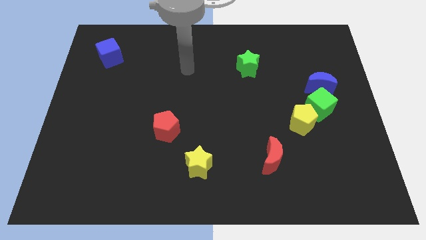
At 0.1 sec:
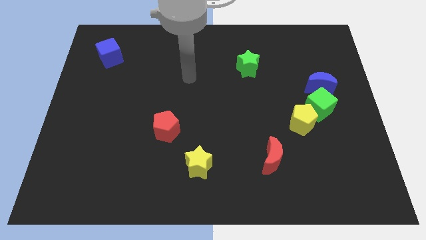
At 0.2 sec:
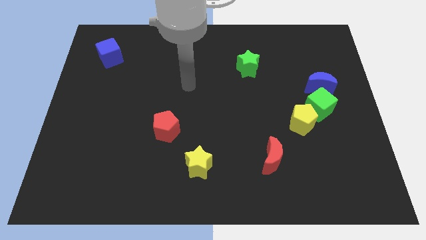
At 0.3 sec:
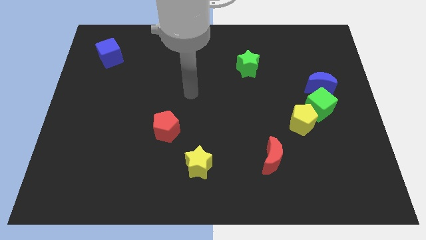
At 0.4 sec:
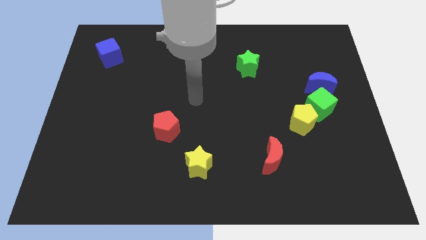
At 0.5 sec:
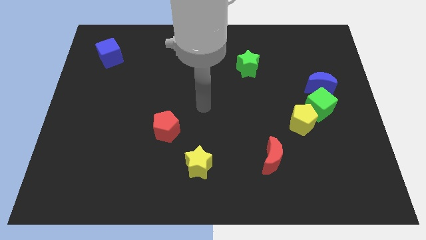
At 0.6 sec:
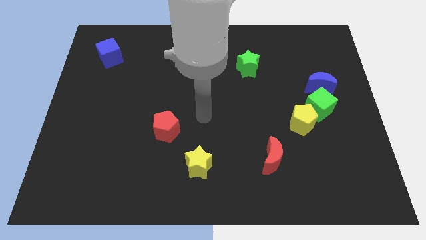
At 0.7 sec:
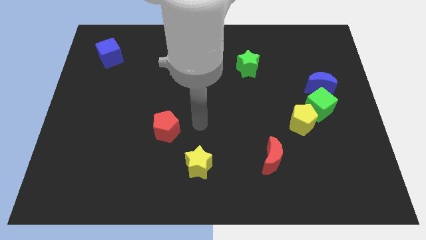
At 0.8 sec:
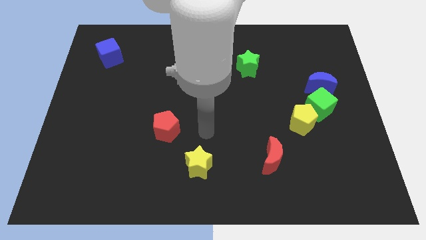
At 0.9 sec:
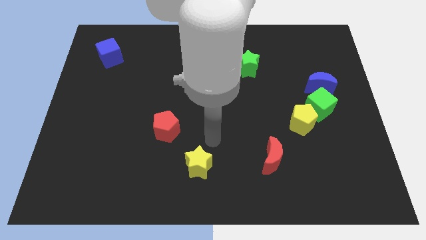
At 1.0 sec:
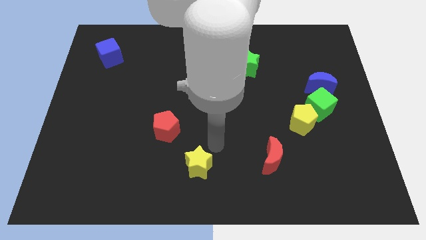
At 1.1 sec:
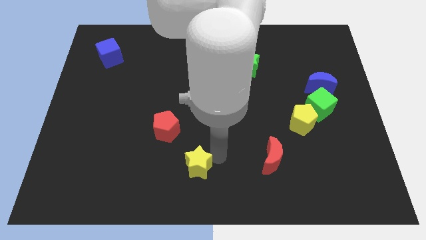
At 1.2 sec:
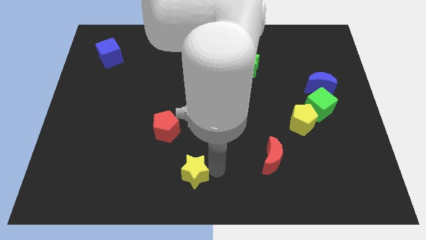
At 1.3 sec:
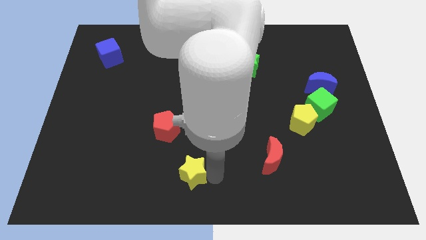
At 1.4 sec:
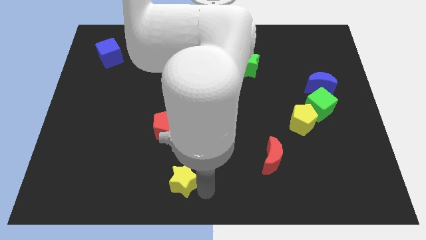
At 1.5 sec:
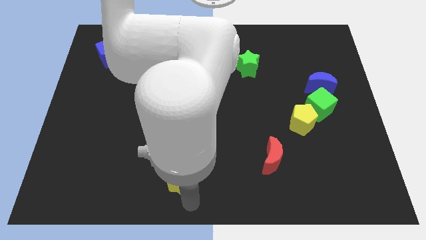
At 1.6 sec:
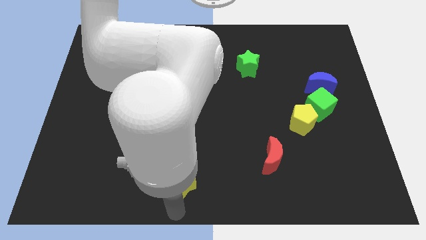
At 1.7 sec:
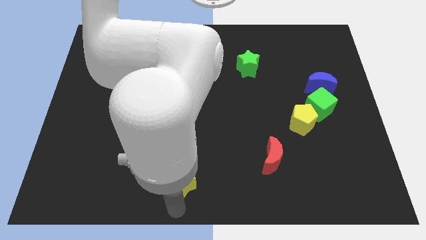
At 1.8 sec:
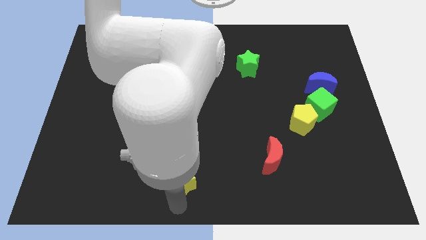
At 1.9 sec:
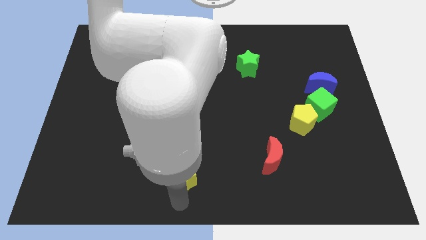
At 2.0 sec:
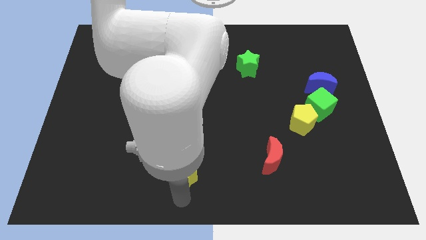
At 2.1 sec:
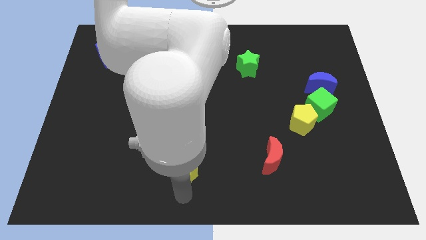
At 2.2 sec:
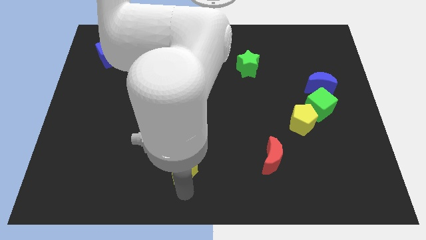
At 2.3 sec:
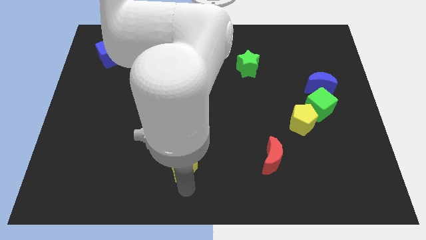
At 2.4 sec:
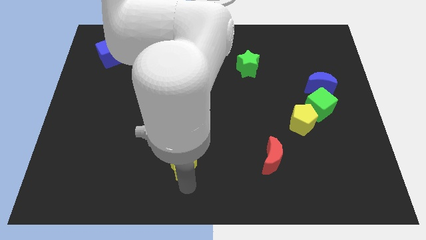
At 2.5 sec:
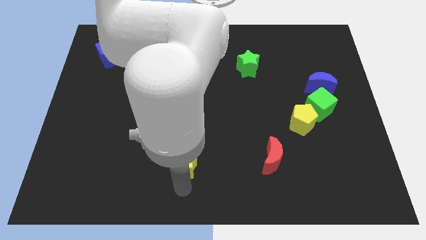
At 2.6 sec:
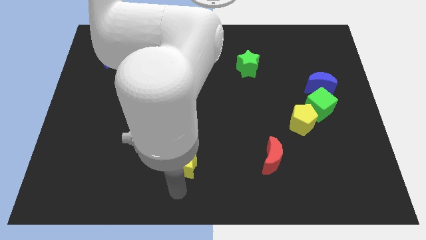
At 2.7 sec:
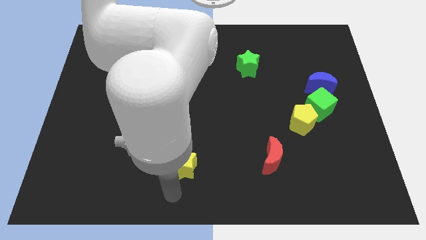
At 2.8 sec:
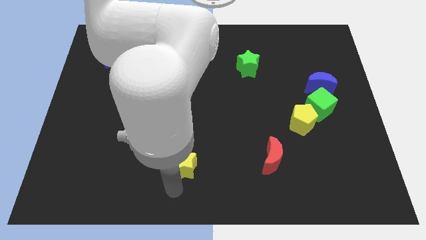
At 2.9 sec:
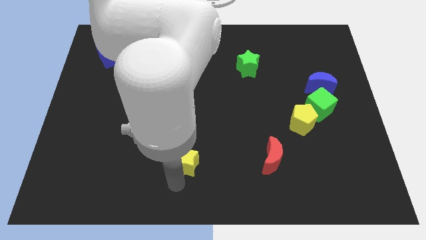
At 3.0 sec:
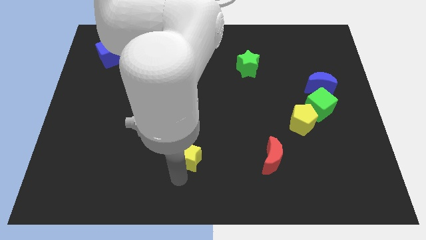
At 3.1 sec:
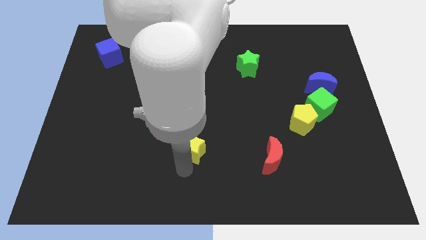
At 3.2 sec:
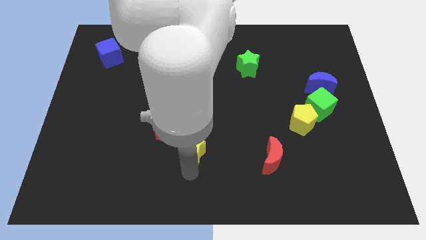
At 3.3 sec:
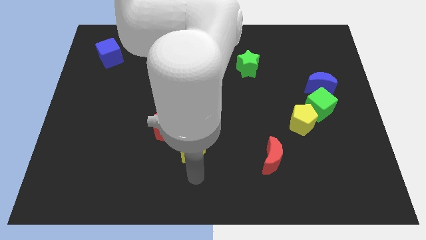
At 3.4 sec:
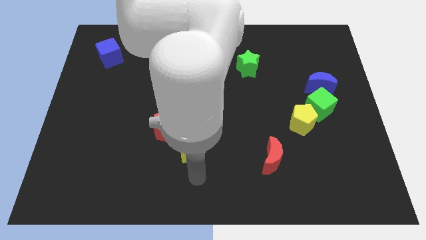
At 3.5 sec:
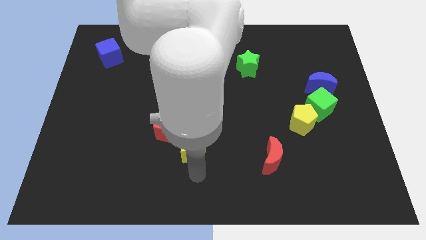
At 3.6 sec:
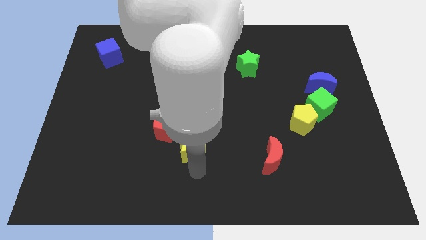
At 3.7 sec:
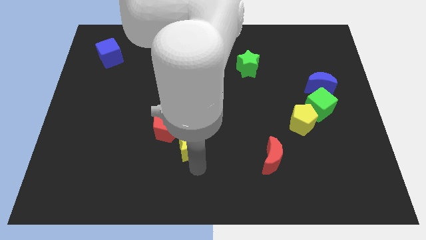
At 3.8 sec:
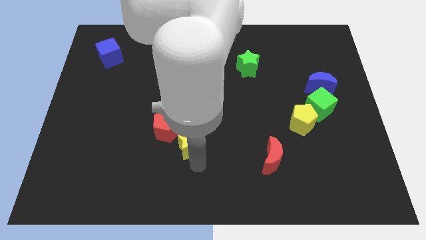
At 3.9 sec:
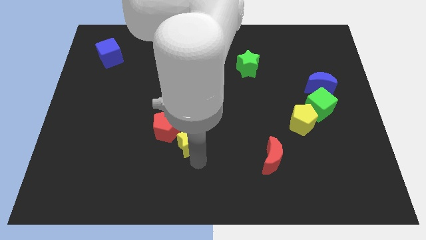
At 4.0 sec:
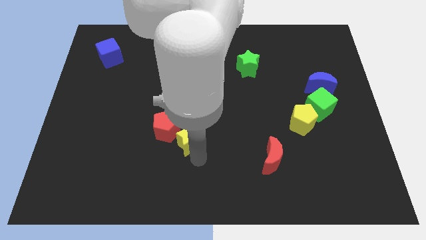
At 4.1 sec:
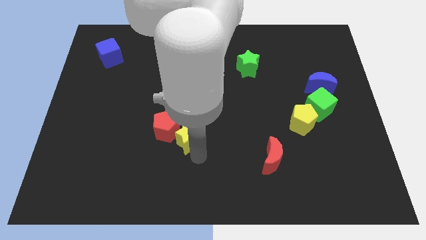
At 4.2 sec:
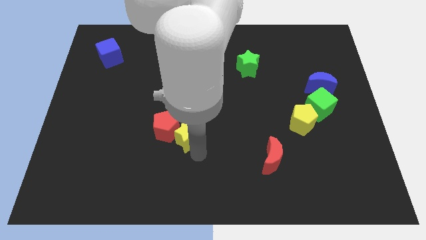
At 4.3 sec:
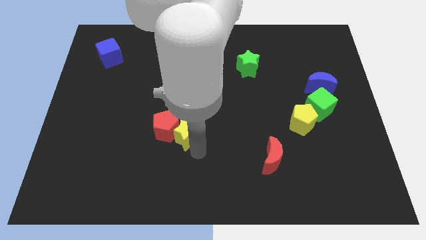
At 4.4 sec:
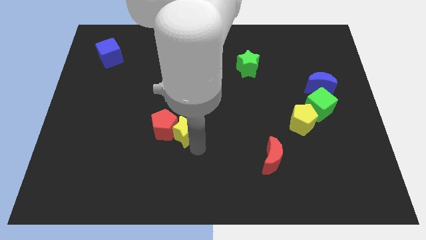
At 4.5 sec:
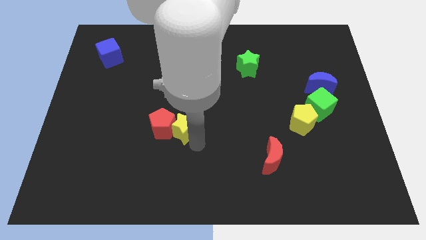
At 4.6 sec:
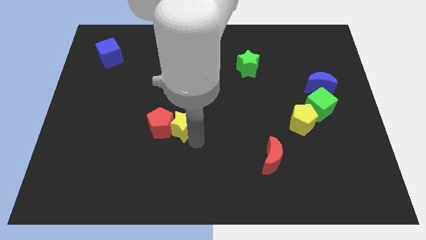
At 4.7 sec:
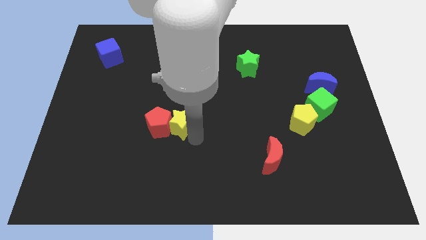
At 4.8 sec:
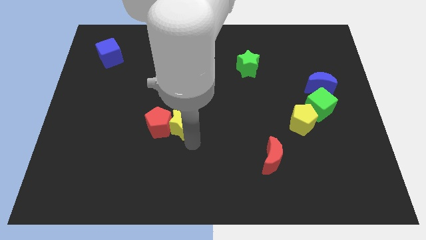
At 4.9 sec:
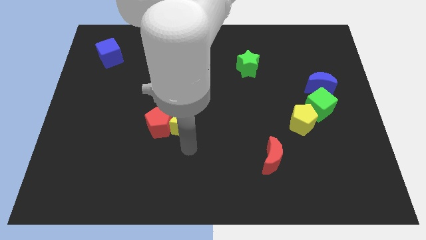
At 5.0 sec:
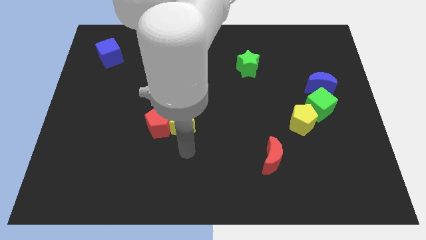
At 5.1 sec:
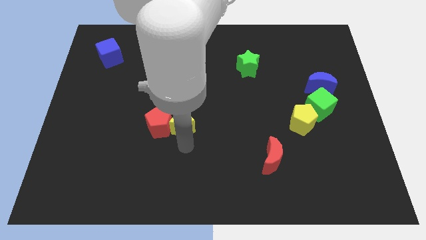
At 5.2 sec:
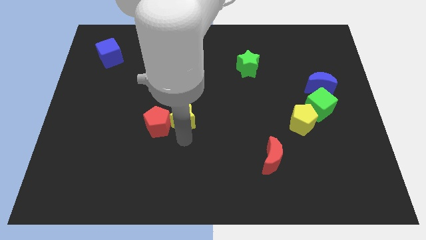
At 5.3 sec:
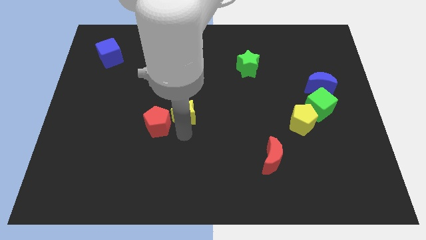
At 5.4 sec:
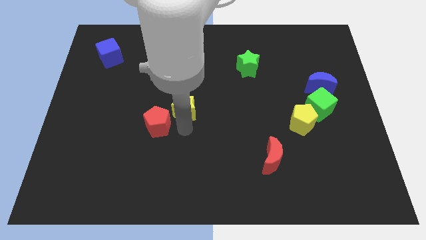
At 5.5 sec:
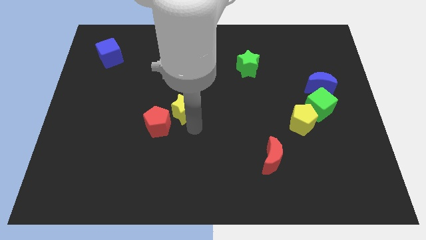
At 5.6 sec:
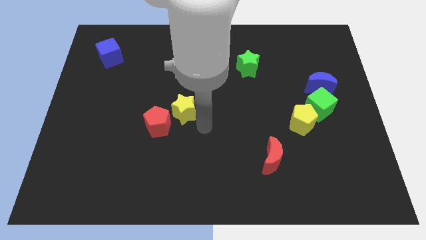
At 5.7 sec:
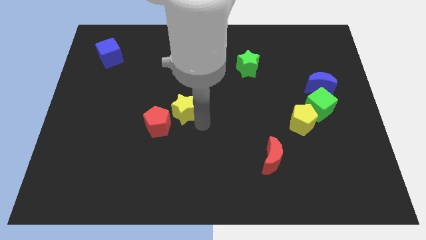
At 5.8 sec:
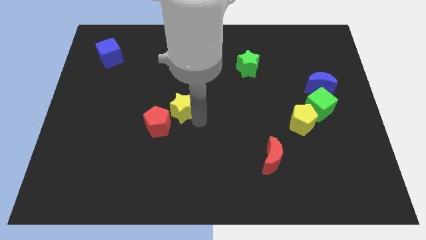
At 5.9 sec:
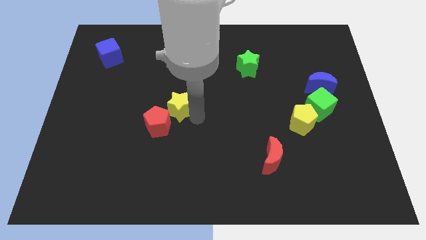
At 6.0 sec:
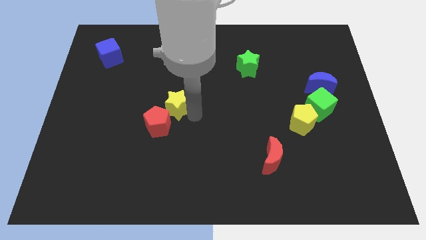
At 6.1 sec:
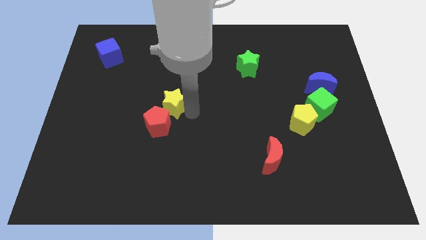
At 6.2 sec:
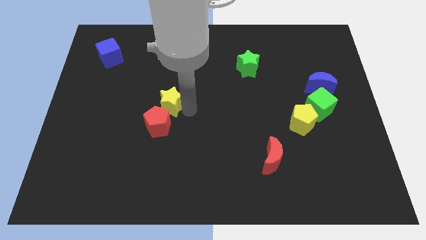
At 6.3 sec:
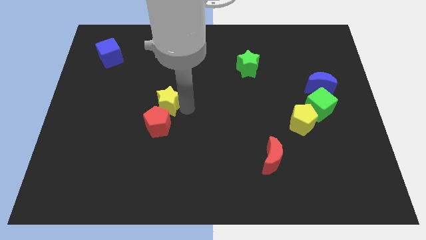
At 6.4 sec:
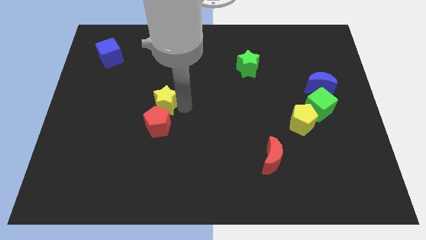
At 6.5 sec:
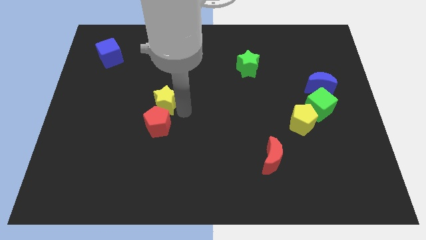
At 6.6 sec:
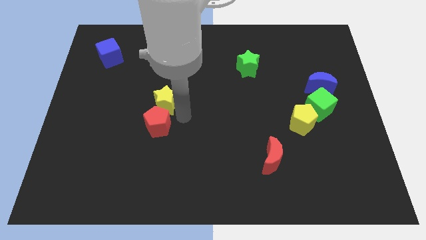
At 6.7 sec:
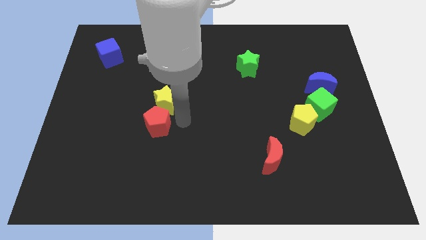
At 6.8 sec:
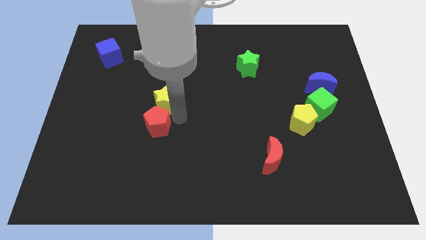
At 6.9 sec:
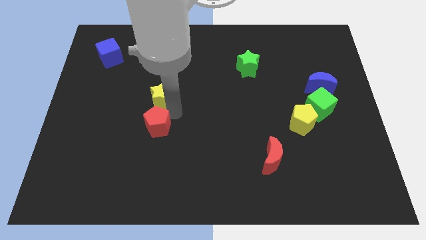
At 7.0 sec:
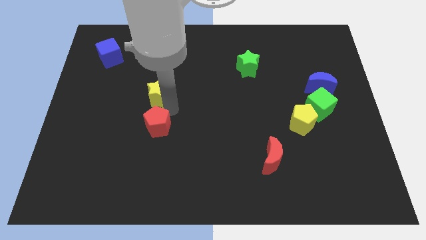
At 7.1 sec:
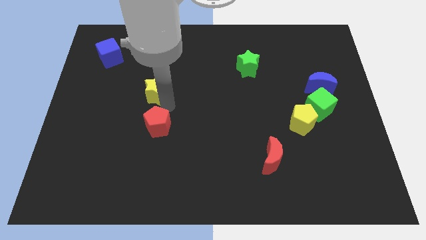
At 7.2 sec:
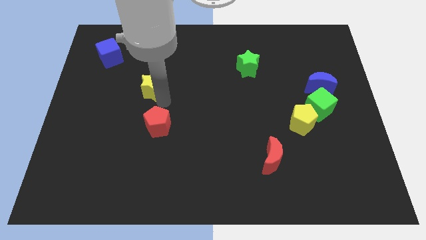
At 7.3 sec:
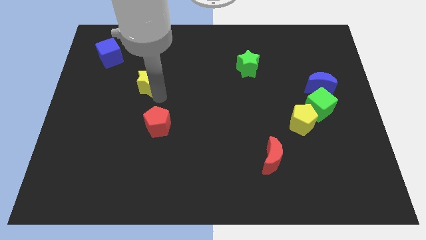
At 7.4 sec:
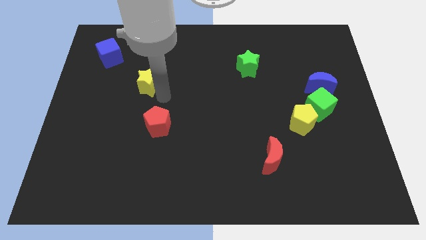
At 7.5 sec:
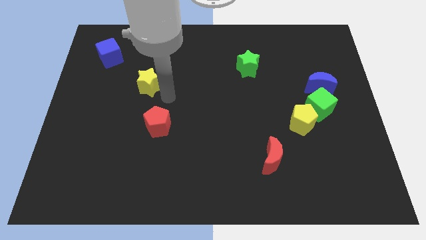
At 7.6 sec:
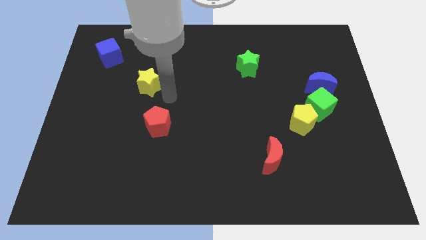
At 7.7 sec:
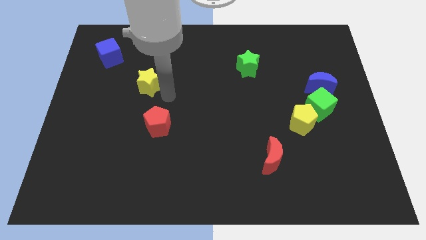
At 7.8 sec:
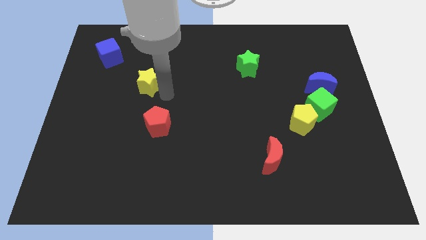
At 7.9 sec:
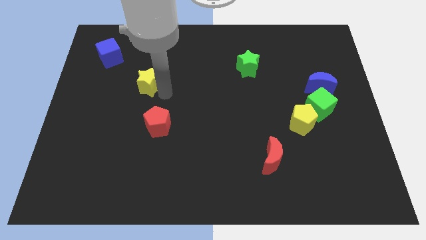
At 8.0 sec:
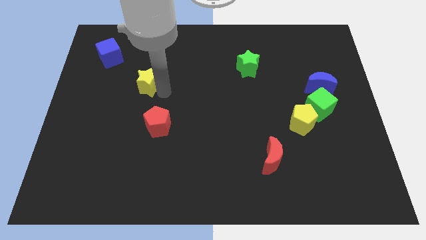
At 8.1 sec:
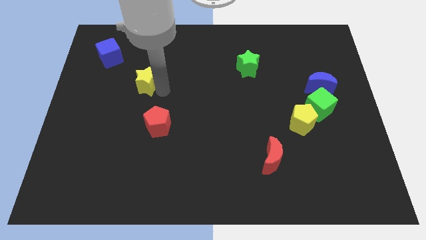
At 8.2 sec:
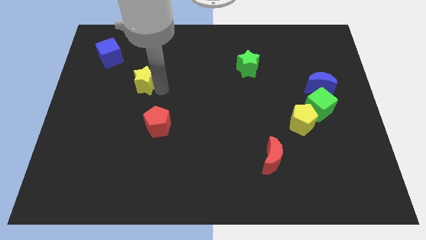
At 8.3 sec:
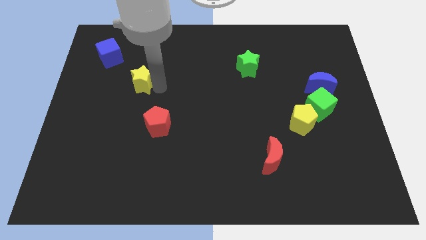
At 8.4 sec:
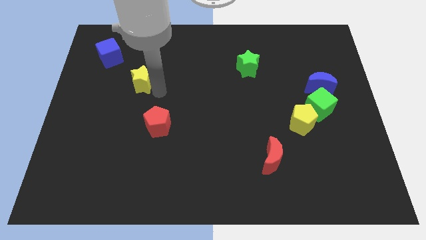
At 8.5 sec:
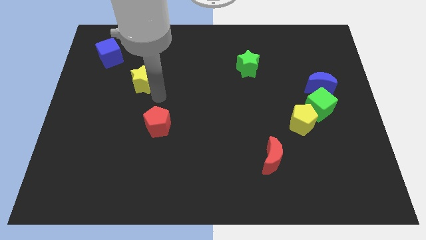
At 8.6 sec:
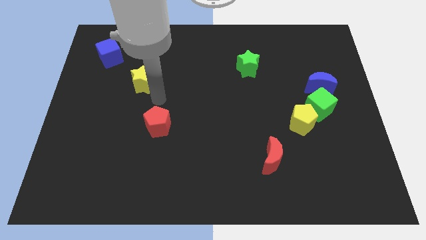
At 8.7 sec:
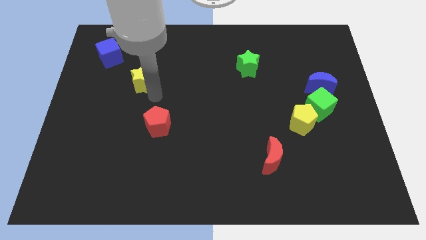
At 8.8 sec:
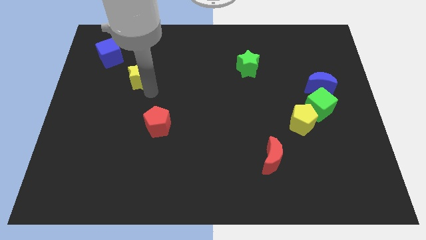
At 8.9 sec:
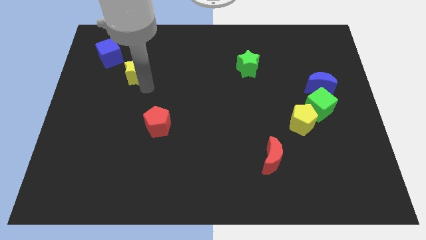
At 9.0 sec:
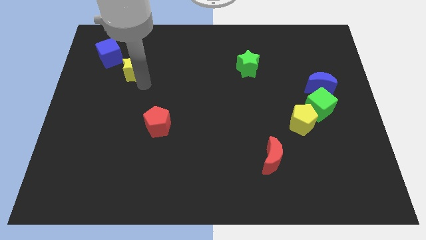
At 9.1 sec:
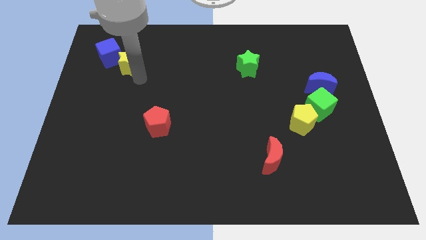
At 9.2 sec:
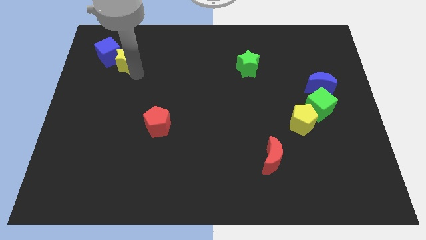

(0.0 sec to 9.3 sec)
push the yellow star close to the blue cube
